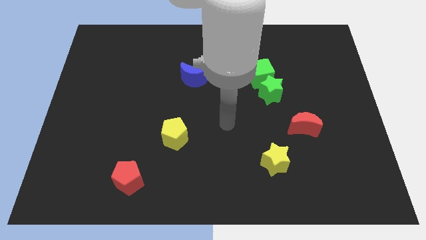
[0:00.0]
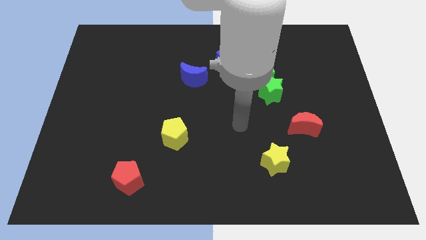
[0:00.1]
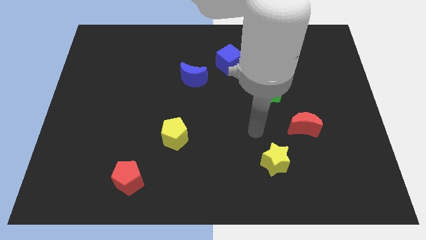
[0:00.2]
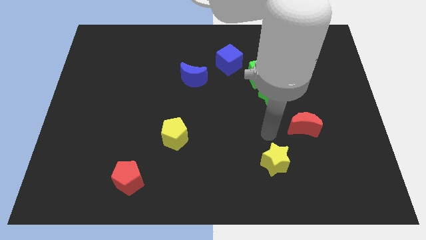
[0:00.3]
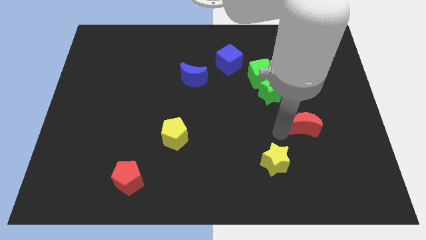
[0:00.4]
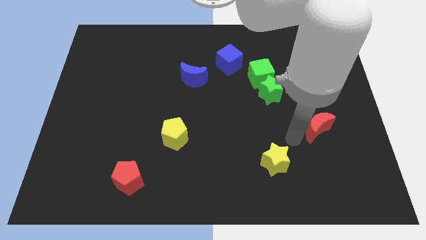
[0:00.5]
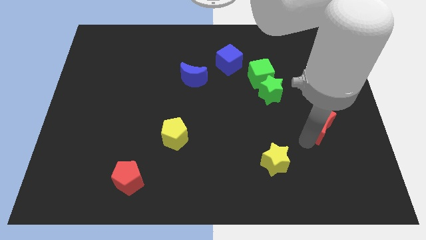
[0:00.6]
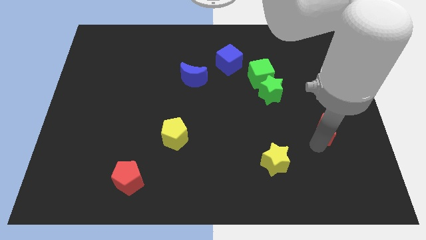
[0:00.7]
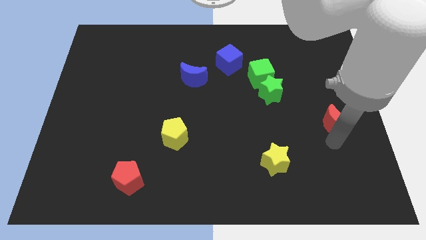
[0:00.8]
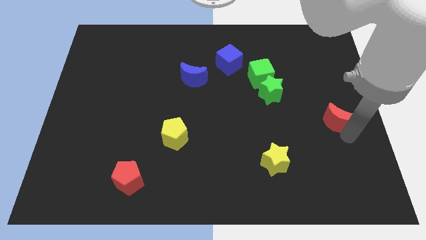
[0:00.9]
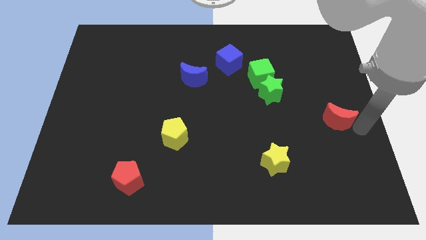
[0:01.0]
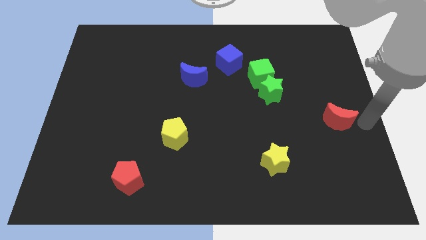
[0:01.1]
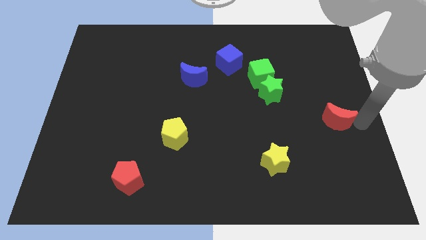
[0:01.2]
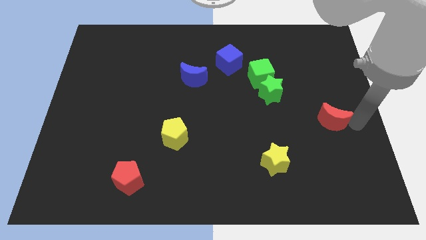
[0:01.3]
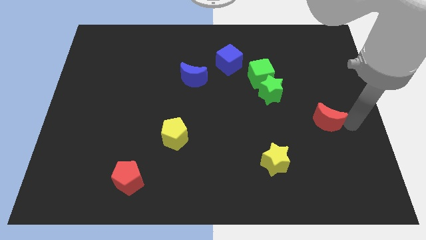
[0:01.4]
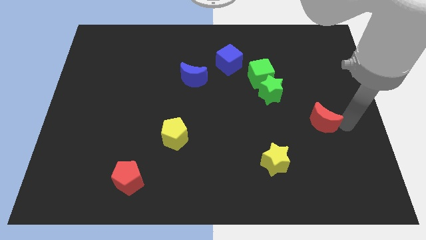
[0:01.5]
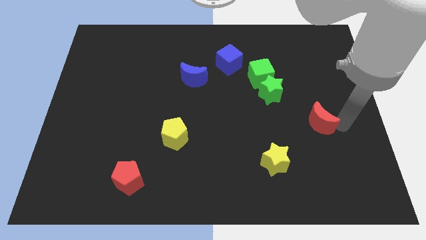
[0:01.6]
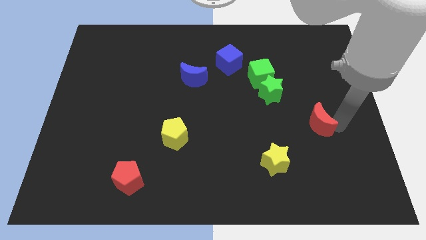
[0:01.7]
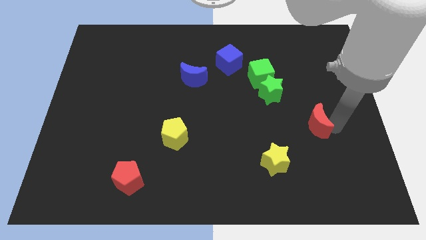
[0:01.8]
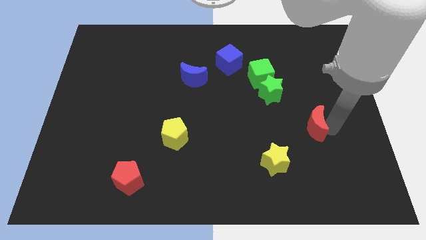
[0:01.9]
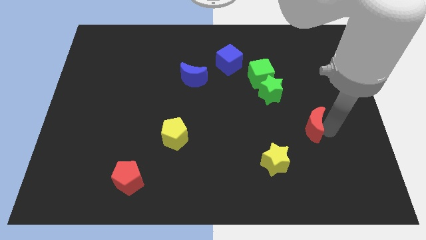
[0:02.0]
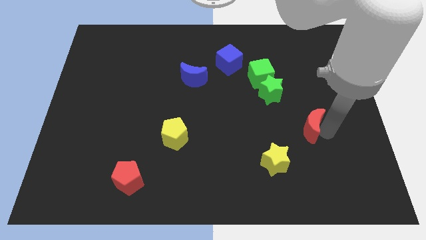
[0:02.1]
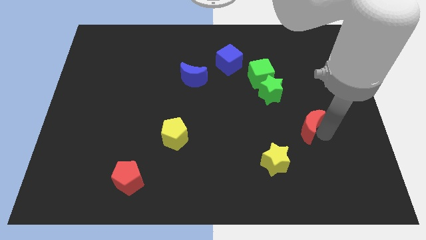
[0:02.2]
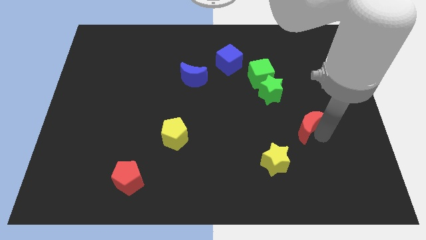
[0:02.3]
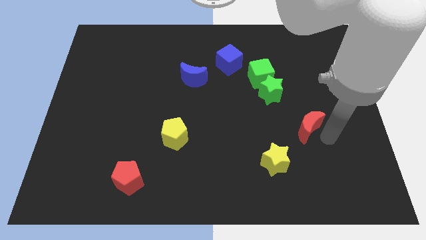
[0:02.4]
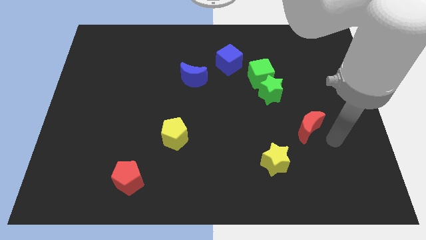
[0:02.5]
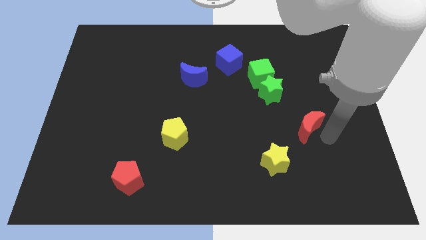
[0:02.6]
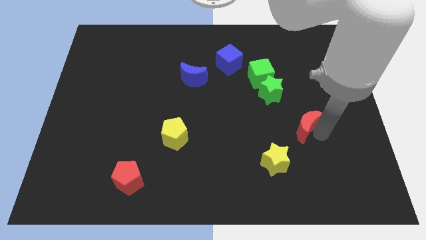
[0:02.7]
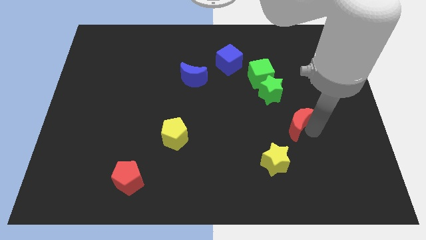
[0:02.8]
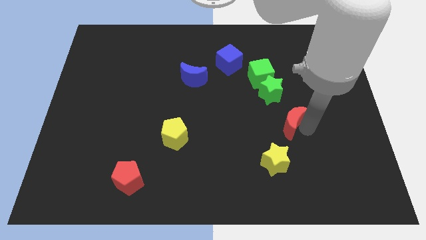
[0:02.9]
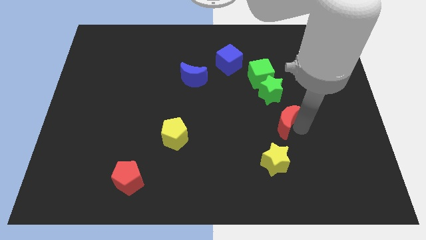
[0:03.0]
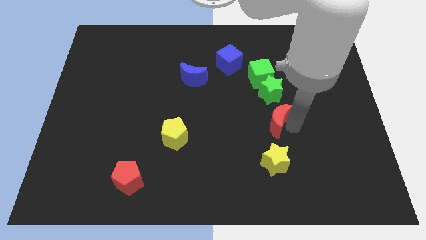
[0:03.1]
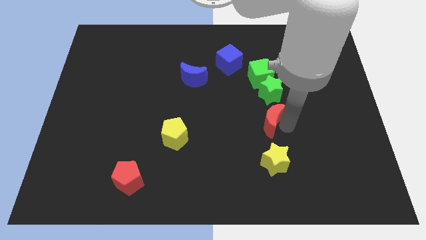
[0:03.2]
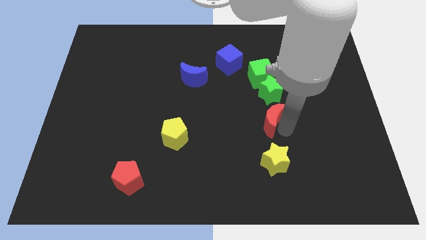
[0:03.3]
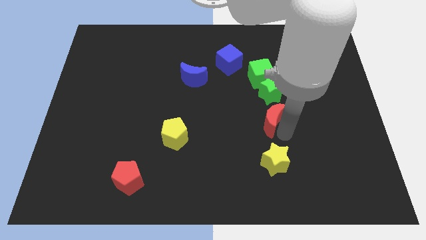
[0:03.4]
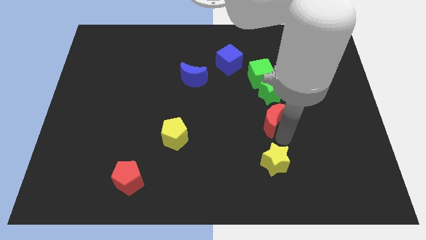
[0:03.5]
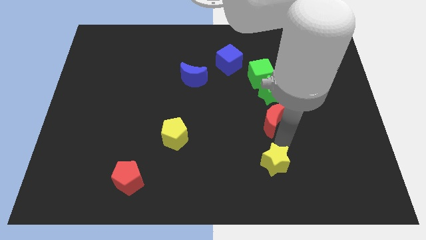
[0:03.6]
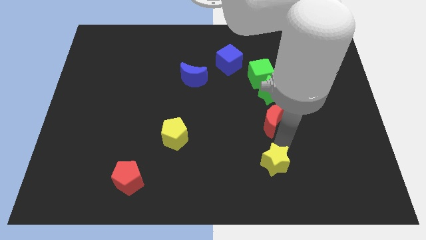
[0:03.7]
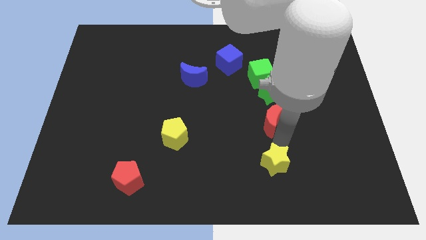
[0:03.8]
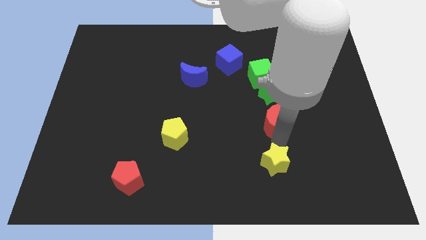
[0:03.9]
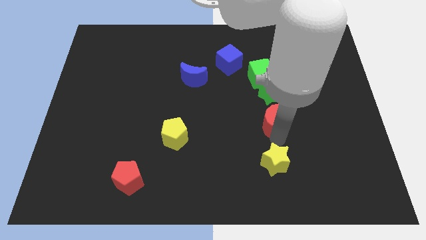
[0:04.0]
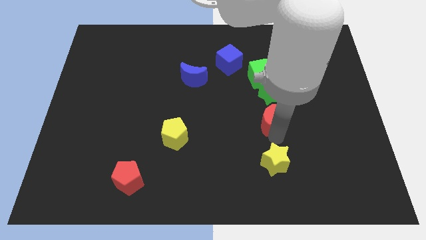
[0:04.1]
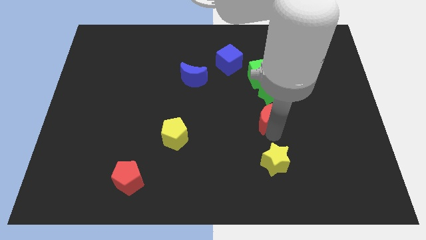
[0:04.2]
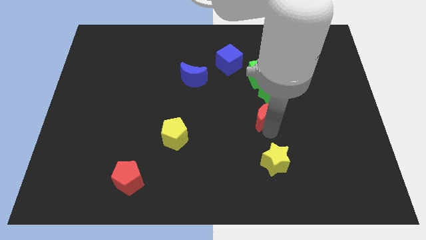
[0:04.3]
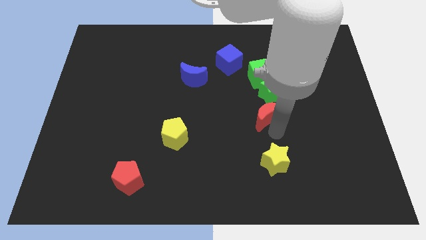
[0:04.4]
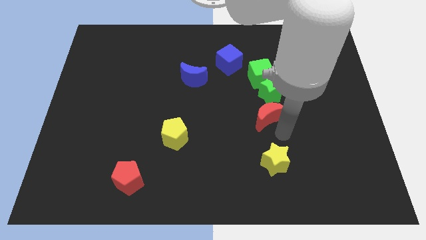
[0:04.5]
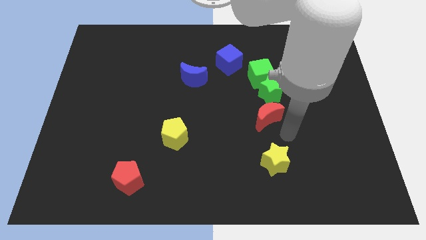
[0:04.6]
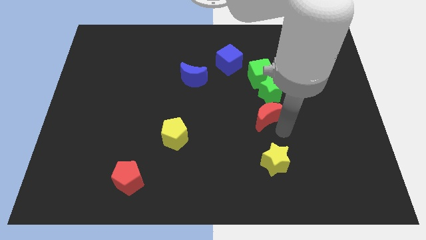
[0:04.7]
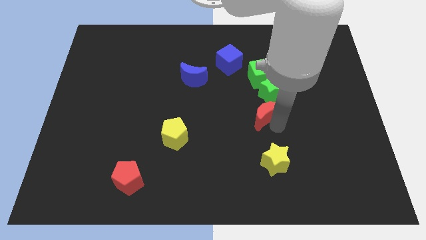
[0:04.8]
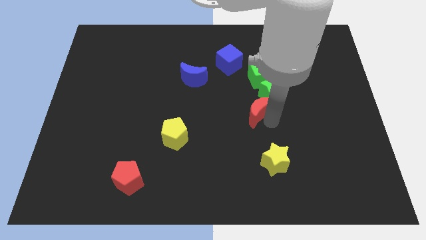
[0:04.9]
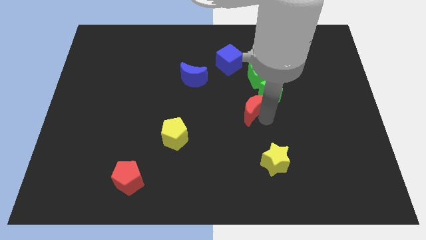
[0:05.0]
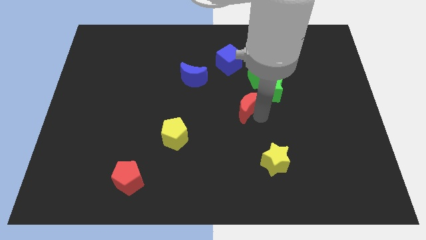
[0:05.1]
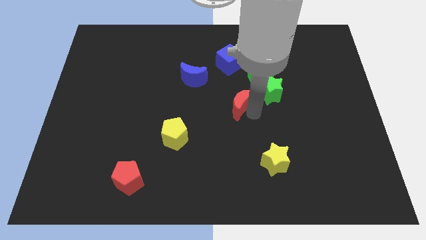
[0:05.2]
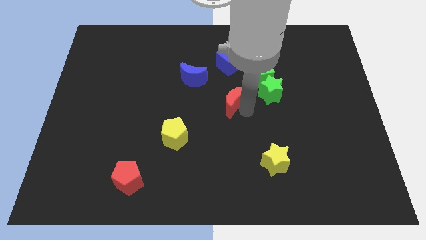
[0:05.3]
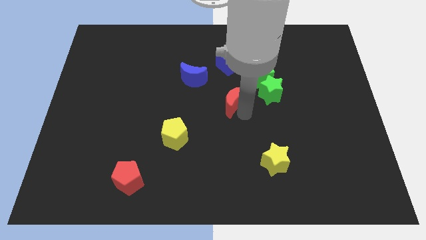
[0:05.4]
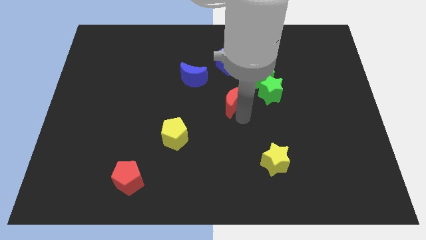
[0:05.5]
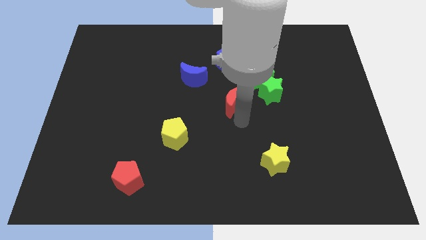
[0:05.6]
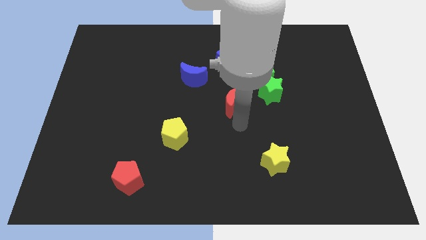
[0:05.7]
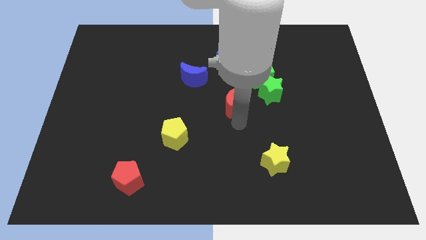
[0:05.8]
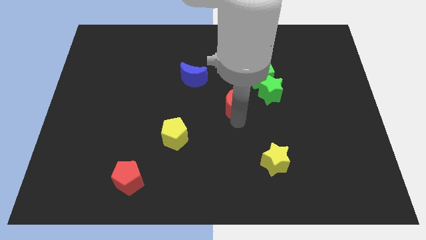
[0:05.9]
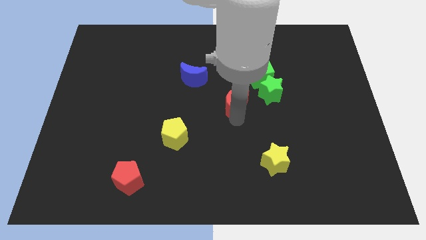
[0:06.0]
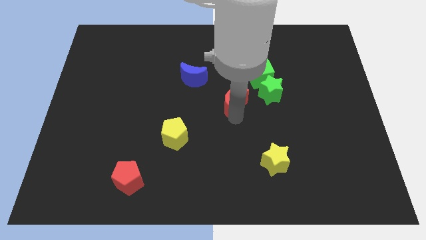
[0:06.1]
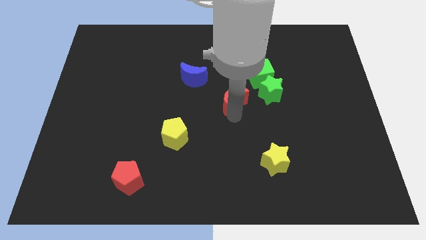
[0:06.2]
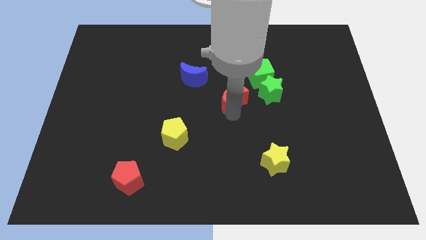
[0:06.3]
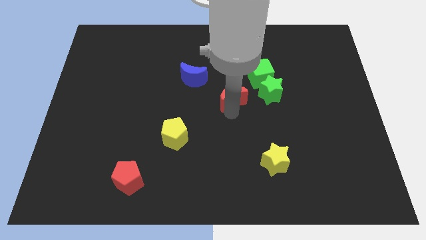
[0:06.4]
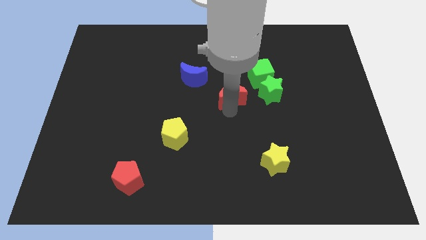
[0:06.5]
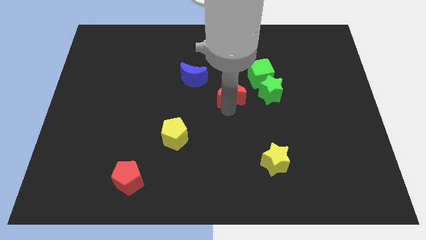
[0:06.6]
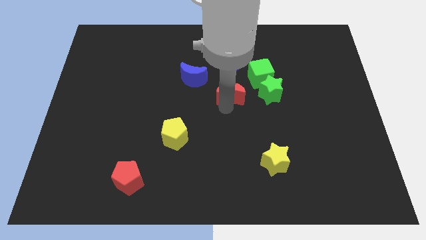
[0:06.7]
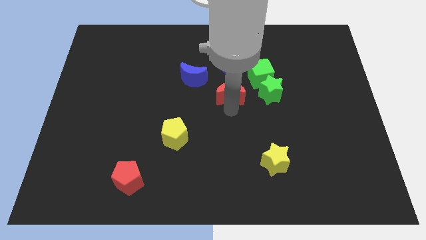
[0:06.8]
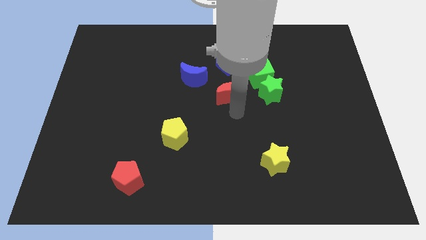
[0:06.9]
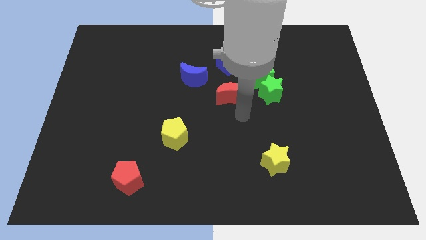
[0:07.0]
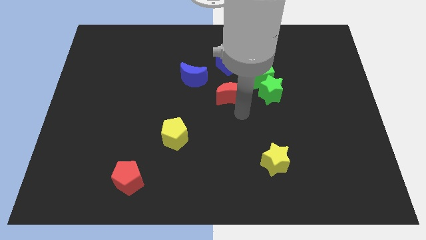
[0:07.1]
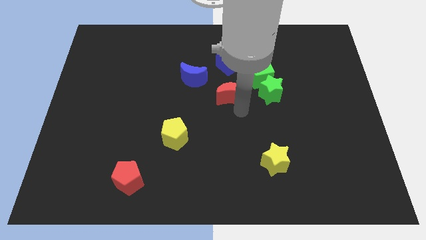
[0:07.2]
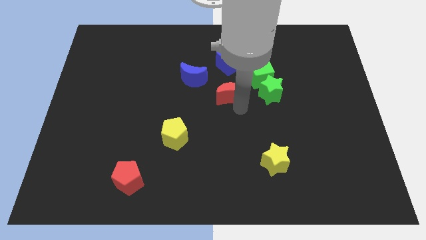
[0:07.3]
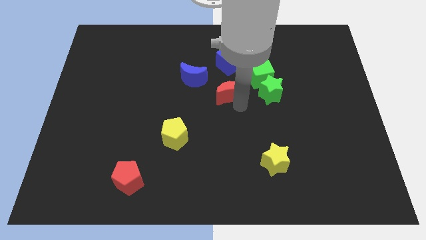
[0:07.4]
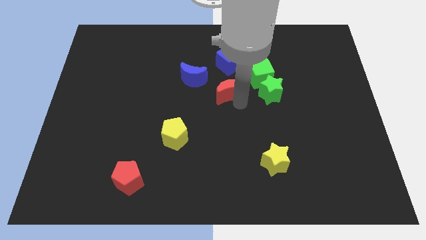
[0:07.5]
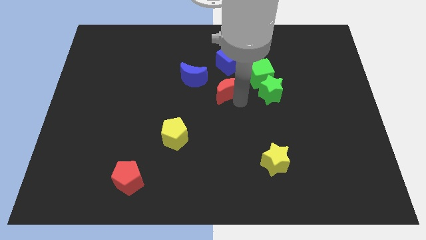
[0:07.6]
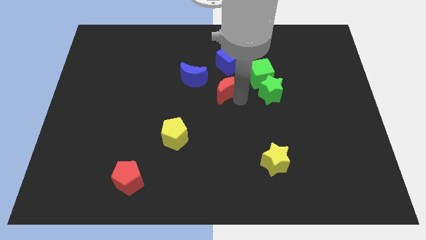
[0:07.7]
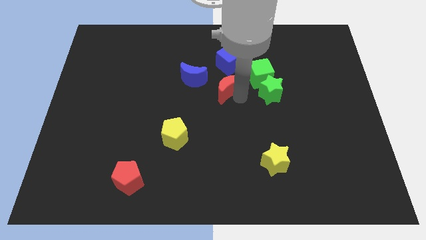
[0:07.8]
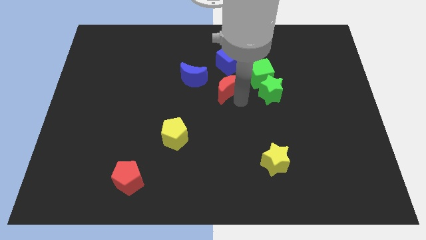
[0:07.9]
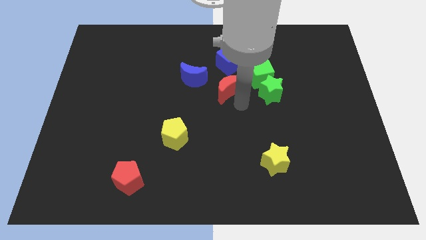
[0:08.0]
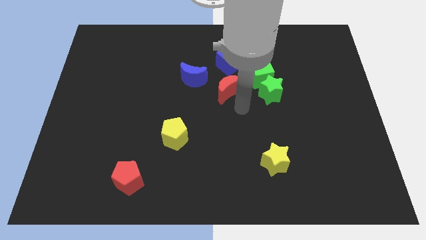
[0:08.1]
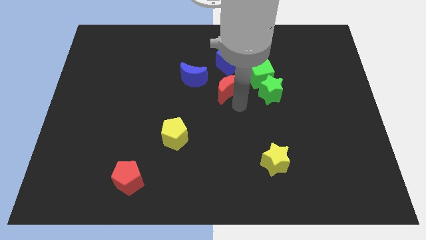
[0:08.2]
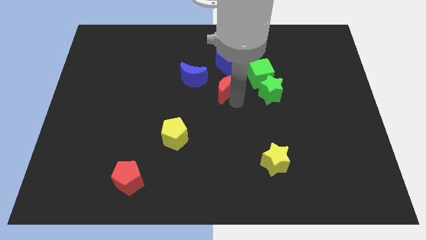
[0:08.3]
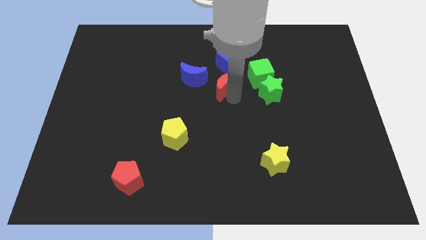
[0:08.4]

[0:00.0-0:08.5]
push the red moon diagonally up and to the left
